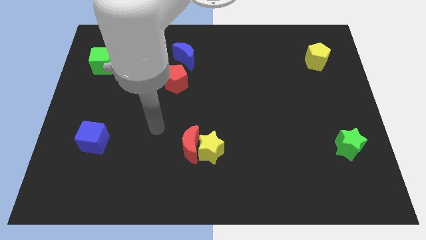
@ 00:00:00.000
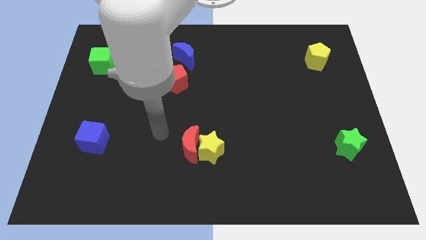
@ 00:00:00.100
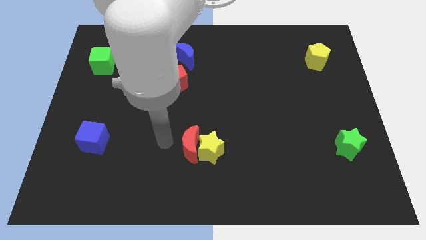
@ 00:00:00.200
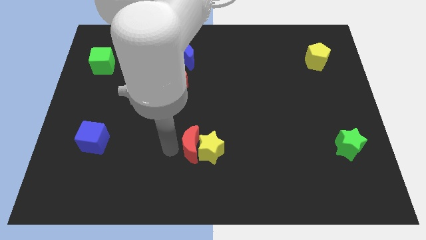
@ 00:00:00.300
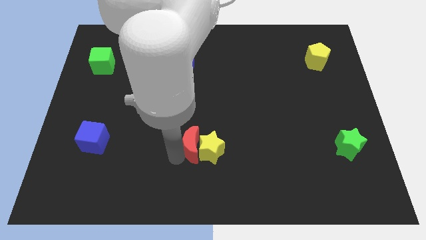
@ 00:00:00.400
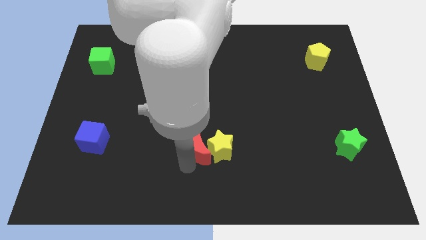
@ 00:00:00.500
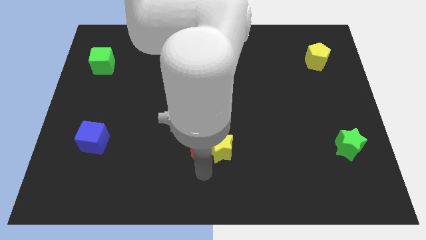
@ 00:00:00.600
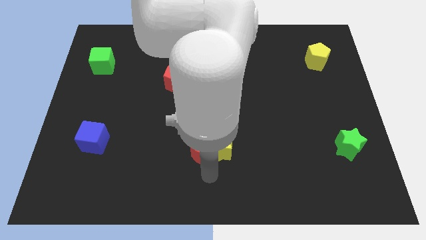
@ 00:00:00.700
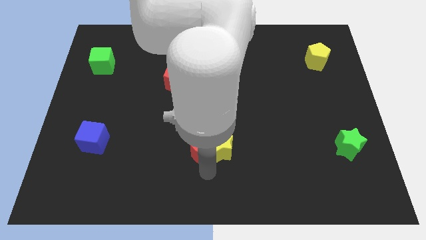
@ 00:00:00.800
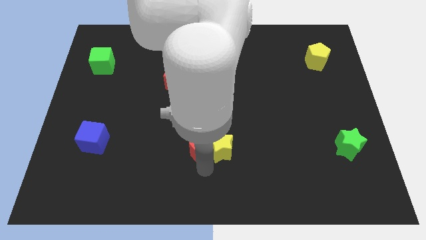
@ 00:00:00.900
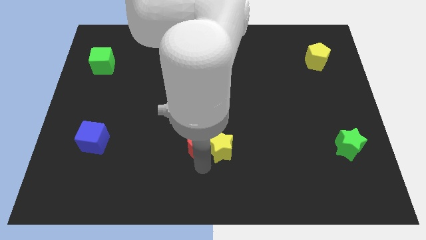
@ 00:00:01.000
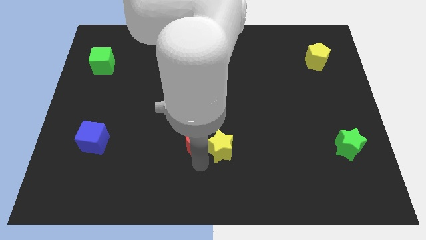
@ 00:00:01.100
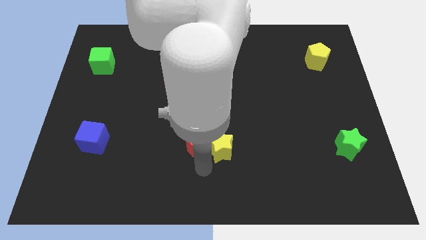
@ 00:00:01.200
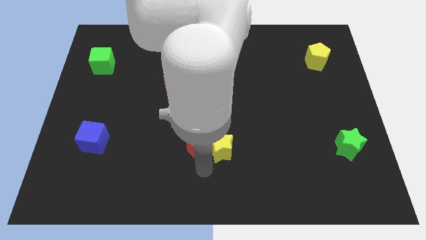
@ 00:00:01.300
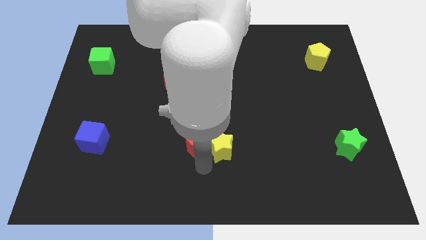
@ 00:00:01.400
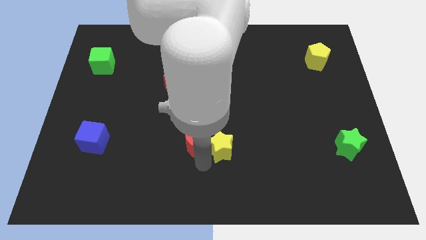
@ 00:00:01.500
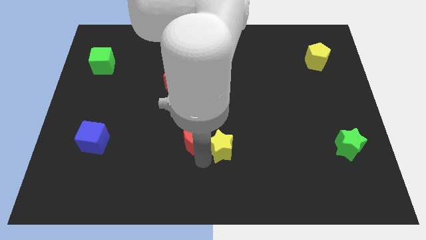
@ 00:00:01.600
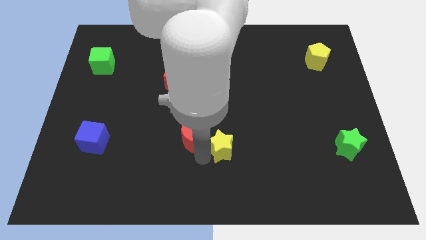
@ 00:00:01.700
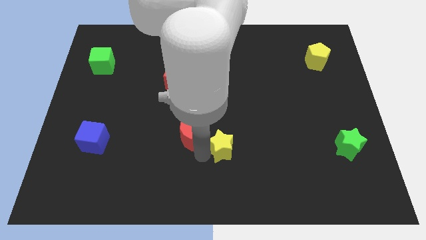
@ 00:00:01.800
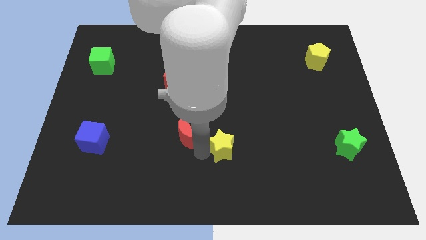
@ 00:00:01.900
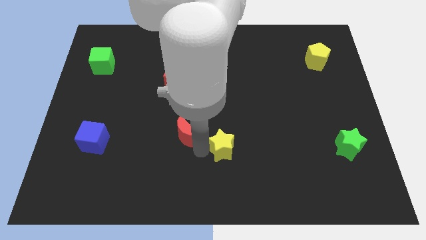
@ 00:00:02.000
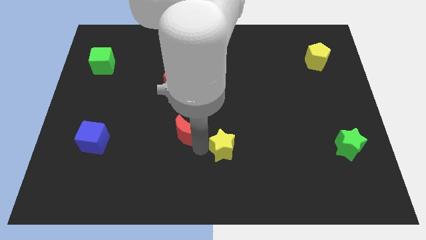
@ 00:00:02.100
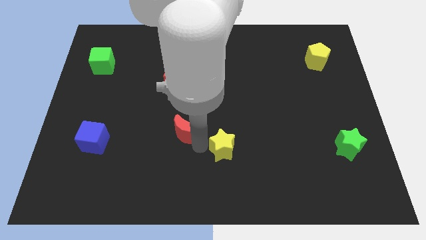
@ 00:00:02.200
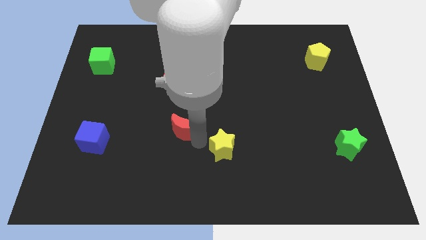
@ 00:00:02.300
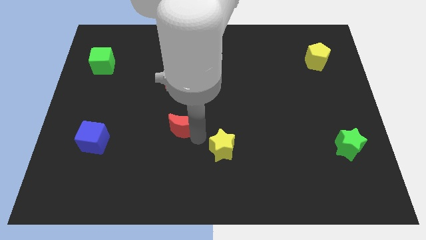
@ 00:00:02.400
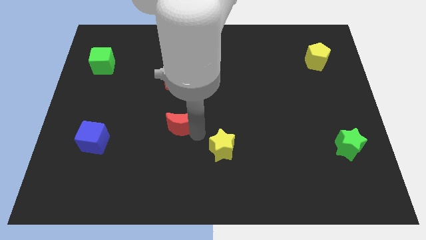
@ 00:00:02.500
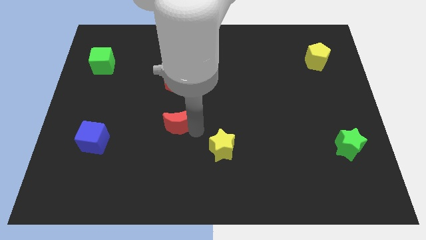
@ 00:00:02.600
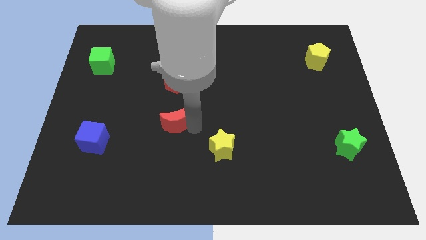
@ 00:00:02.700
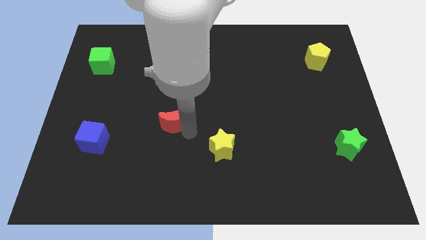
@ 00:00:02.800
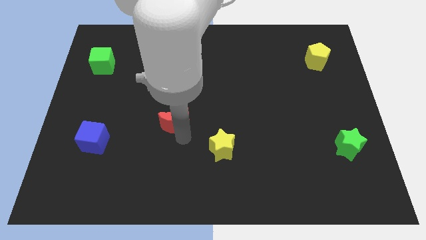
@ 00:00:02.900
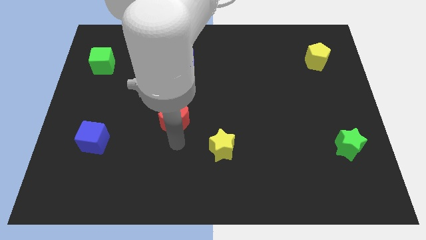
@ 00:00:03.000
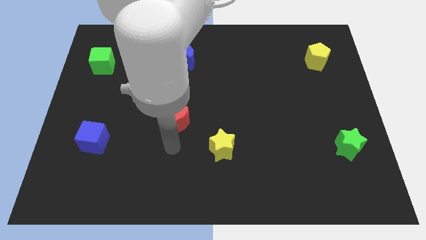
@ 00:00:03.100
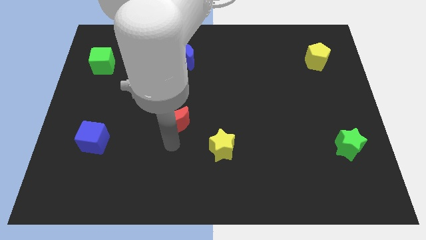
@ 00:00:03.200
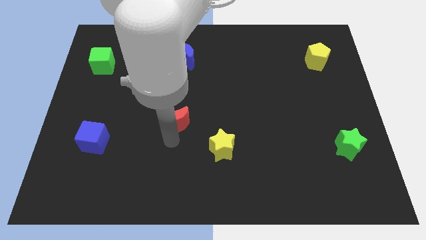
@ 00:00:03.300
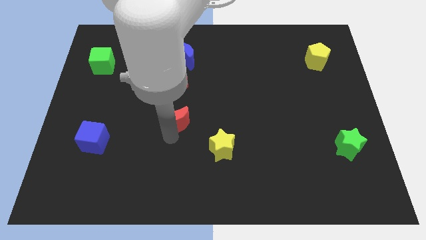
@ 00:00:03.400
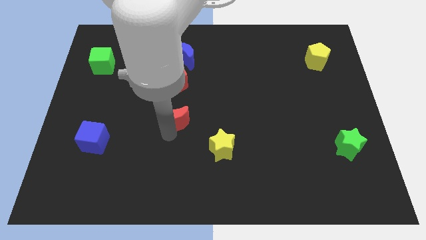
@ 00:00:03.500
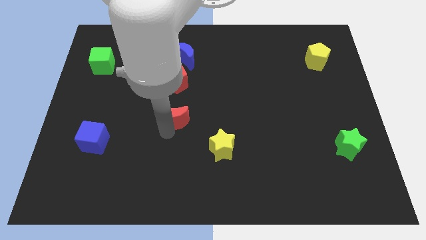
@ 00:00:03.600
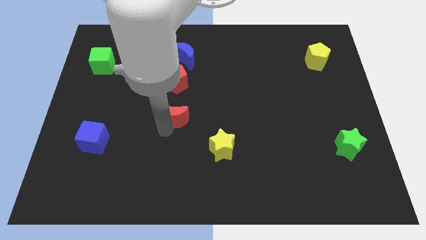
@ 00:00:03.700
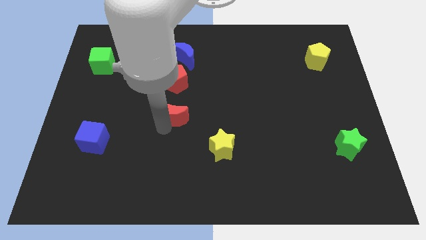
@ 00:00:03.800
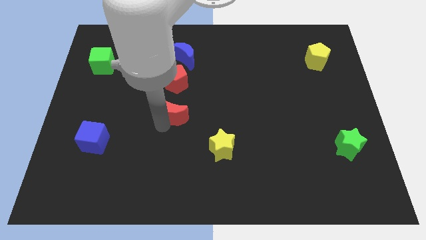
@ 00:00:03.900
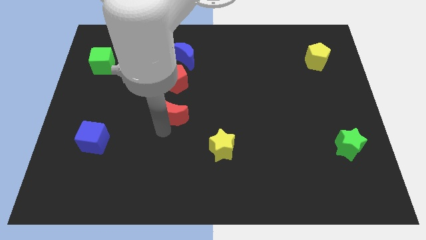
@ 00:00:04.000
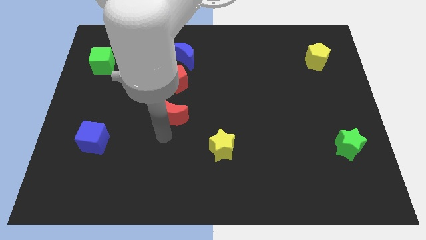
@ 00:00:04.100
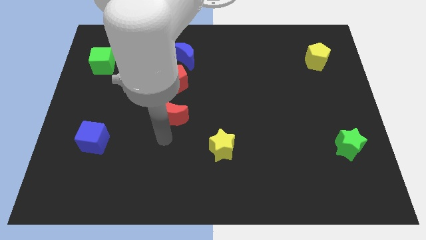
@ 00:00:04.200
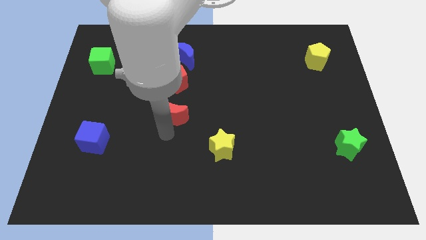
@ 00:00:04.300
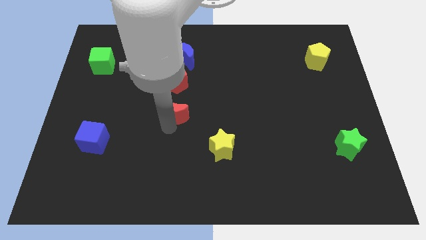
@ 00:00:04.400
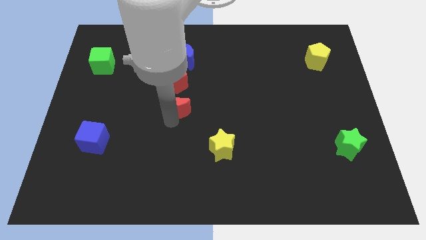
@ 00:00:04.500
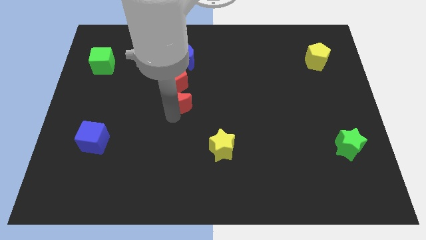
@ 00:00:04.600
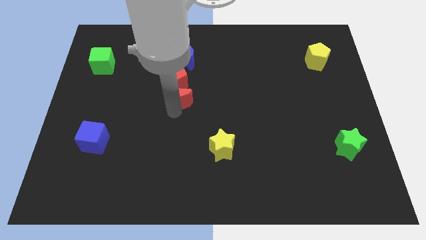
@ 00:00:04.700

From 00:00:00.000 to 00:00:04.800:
slide the red moon close to the red pentagon

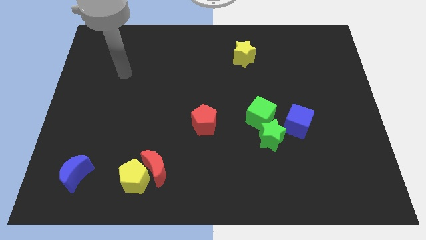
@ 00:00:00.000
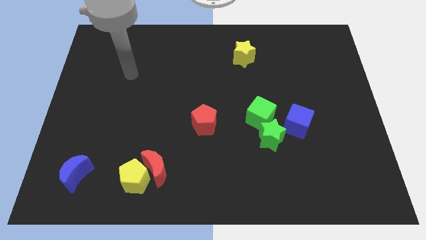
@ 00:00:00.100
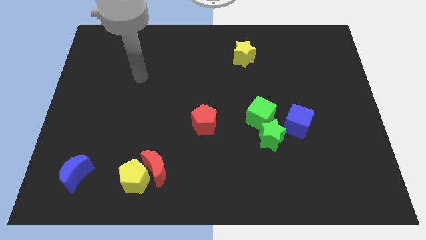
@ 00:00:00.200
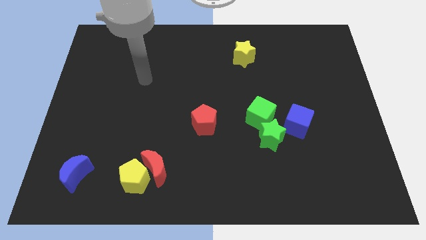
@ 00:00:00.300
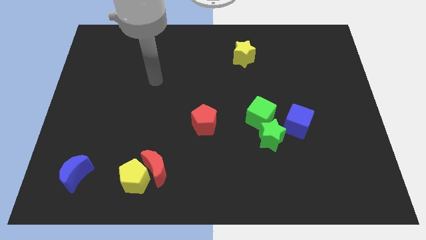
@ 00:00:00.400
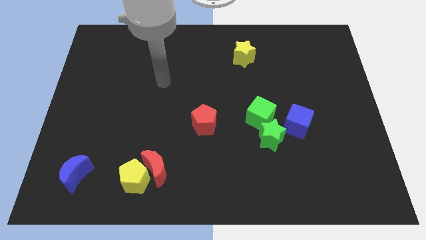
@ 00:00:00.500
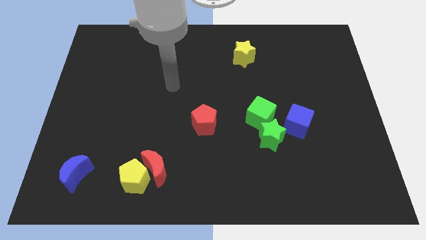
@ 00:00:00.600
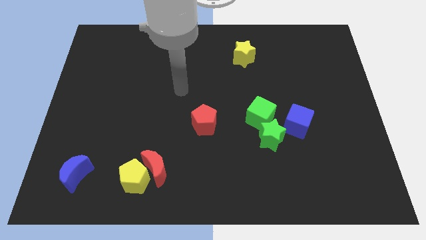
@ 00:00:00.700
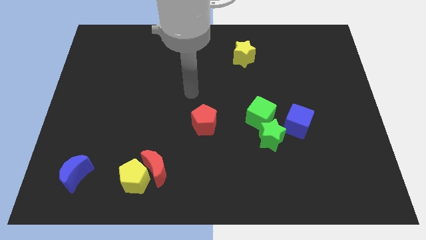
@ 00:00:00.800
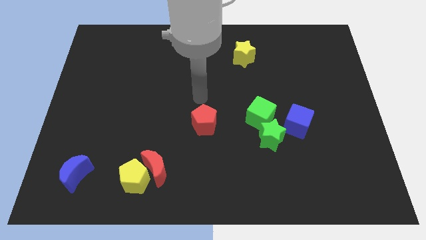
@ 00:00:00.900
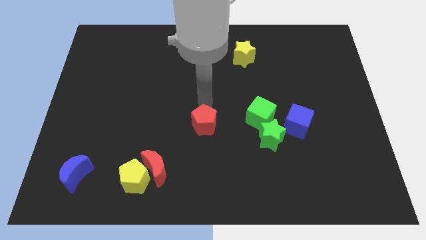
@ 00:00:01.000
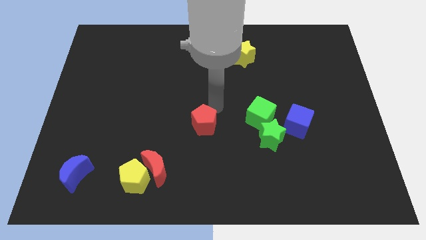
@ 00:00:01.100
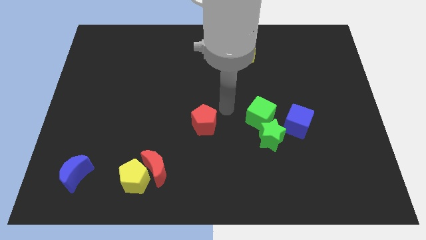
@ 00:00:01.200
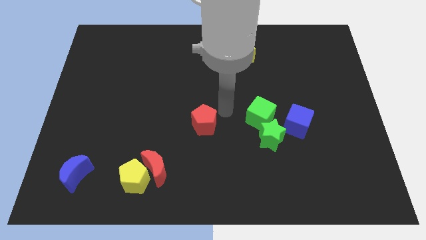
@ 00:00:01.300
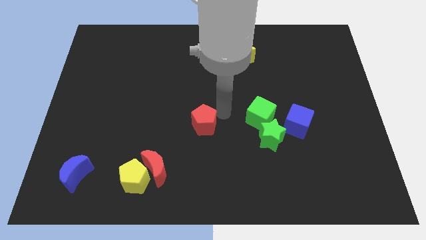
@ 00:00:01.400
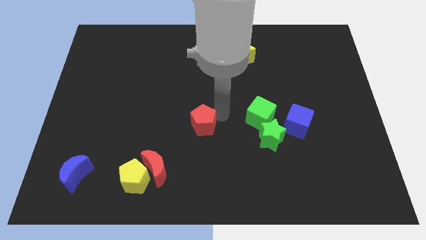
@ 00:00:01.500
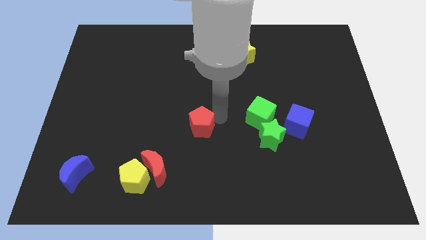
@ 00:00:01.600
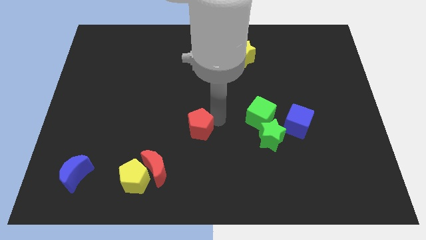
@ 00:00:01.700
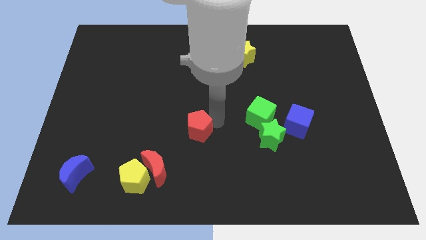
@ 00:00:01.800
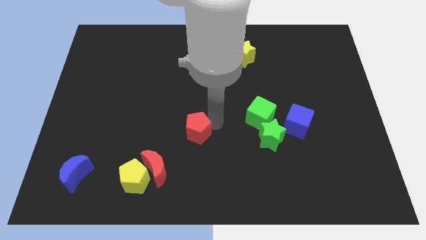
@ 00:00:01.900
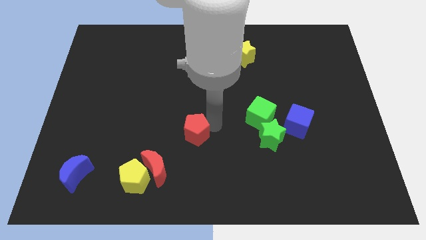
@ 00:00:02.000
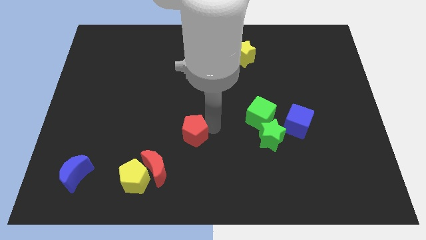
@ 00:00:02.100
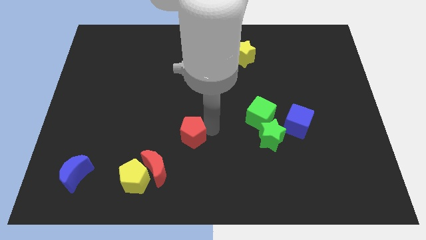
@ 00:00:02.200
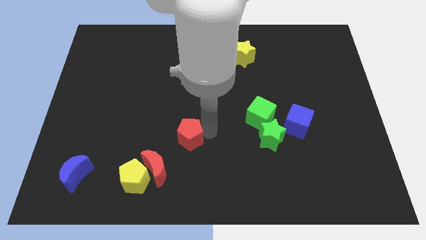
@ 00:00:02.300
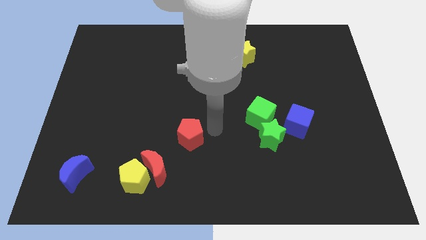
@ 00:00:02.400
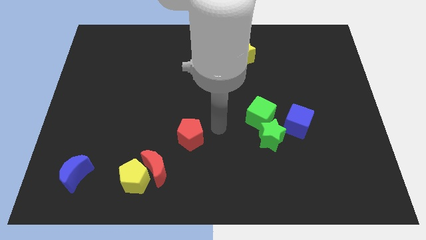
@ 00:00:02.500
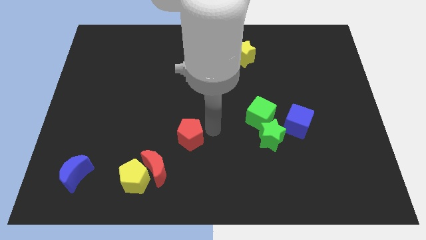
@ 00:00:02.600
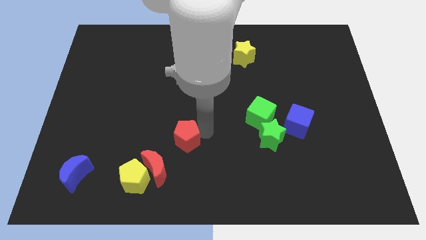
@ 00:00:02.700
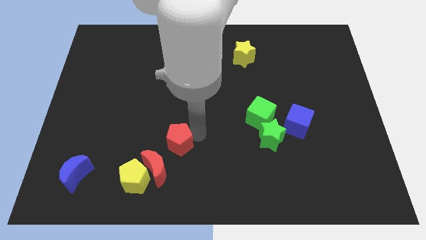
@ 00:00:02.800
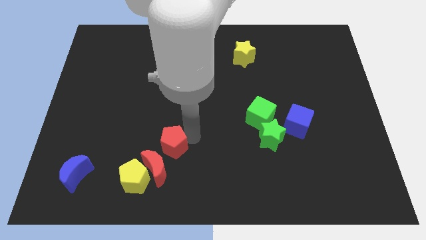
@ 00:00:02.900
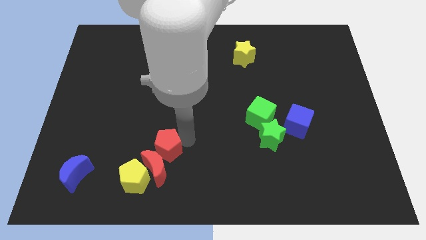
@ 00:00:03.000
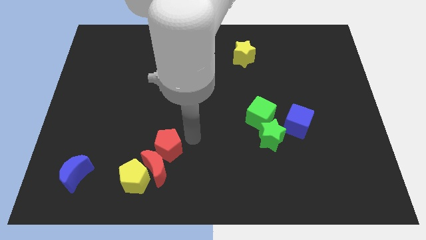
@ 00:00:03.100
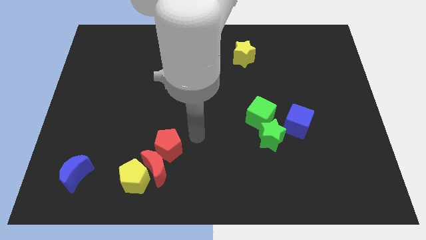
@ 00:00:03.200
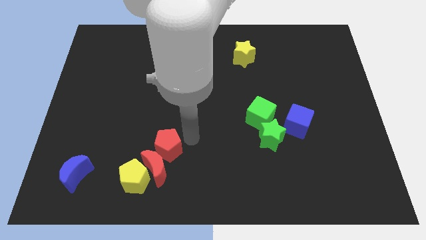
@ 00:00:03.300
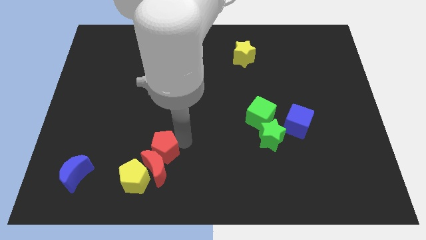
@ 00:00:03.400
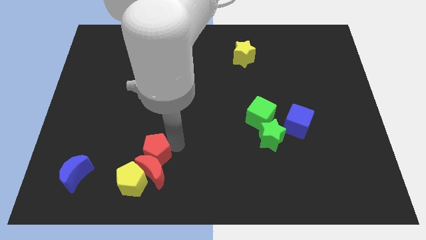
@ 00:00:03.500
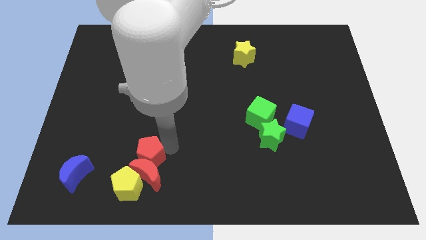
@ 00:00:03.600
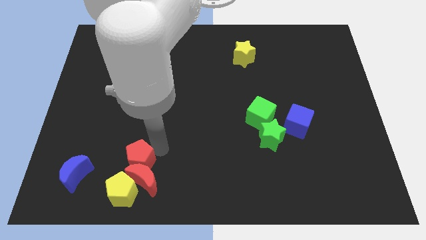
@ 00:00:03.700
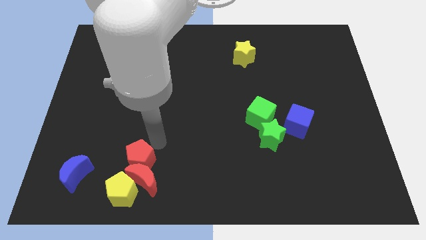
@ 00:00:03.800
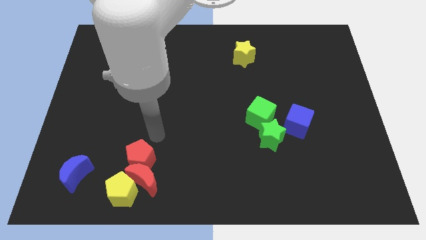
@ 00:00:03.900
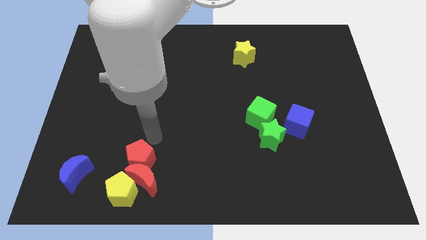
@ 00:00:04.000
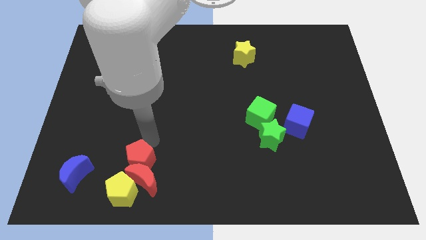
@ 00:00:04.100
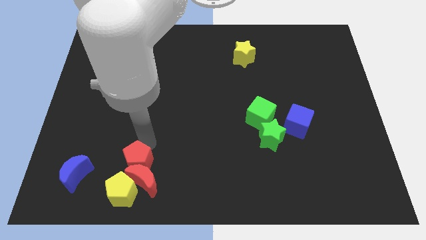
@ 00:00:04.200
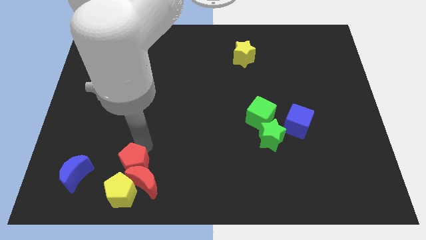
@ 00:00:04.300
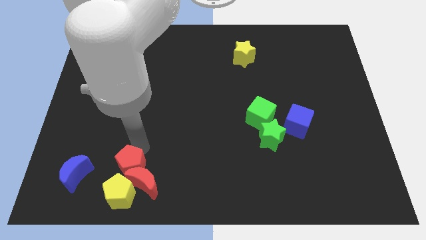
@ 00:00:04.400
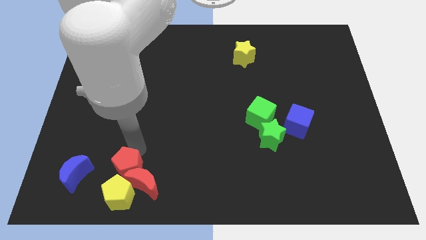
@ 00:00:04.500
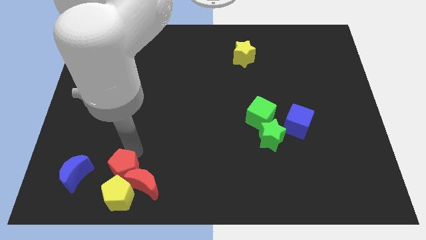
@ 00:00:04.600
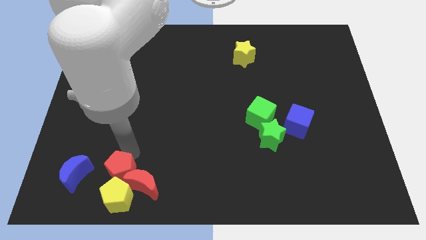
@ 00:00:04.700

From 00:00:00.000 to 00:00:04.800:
put the red pentagon next to the yellow pentagon
